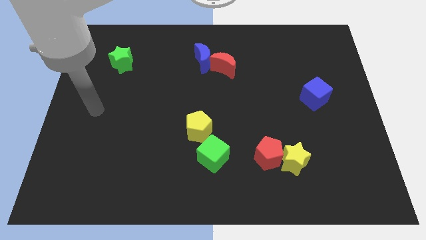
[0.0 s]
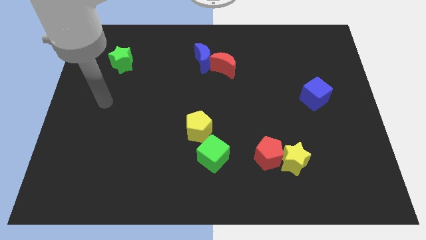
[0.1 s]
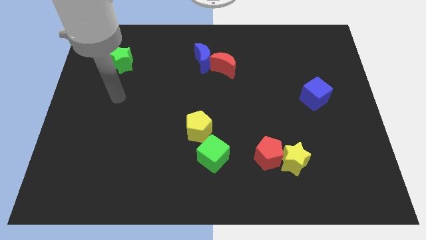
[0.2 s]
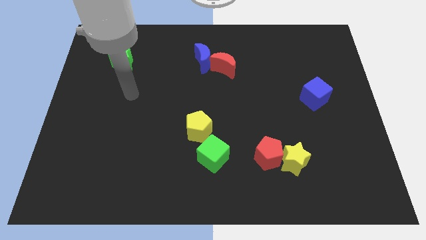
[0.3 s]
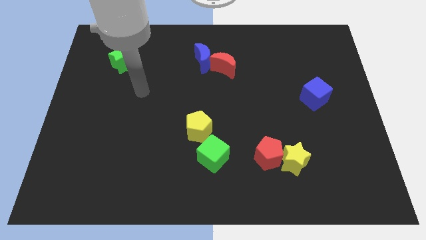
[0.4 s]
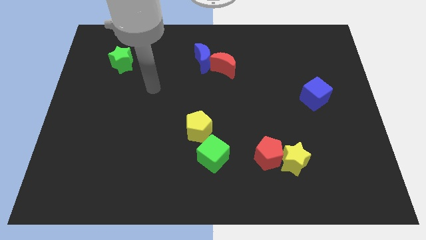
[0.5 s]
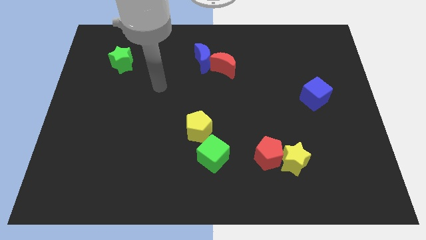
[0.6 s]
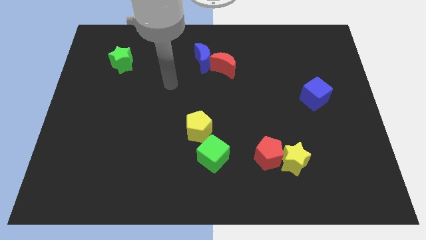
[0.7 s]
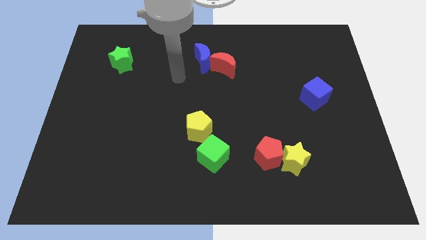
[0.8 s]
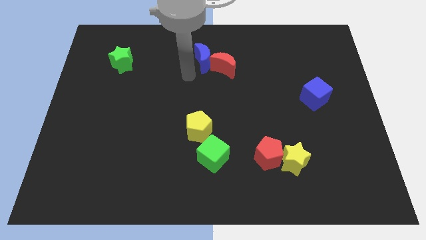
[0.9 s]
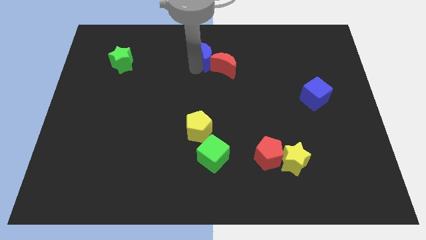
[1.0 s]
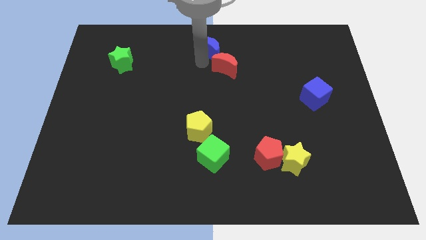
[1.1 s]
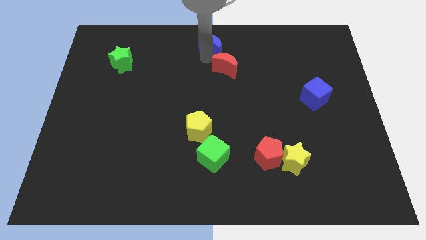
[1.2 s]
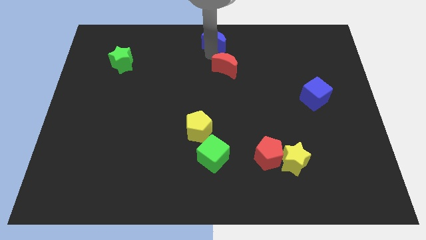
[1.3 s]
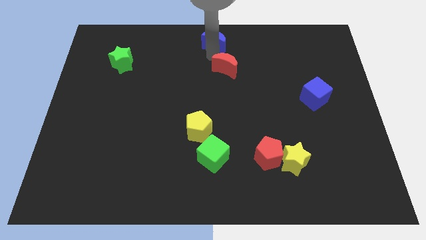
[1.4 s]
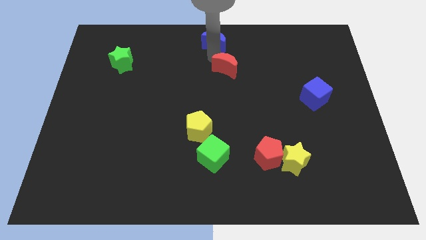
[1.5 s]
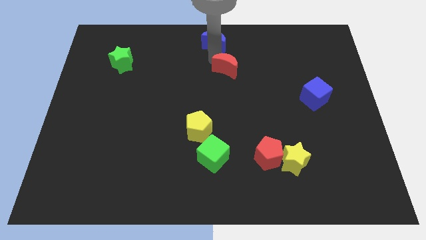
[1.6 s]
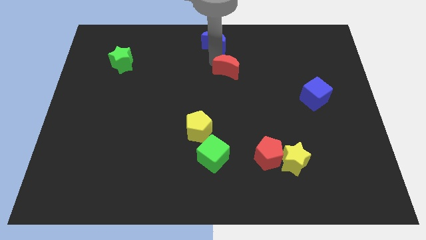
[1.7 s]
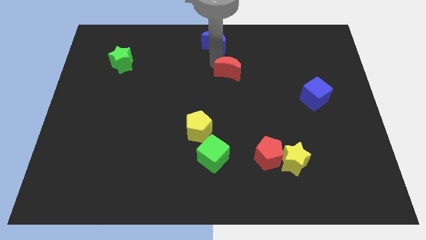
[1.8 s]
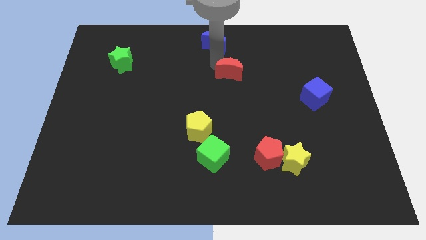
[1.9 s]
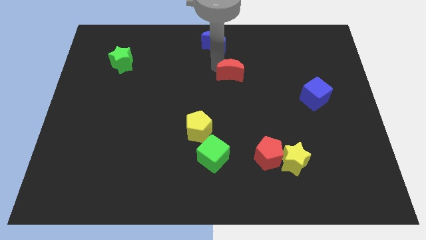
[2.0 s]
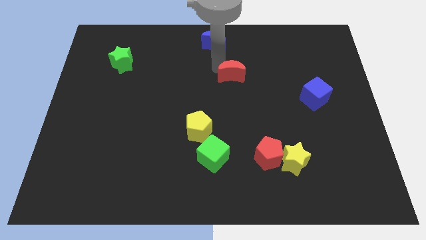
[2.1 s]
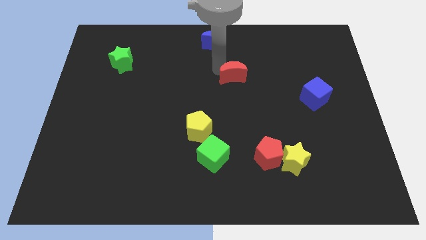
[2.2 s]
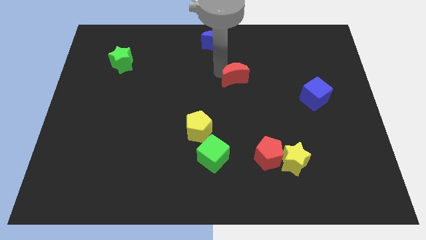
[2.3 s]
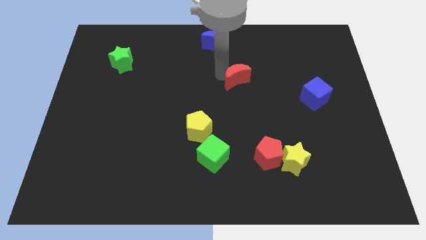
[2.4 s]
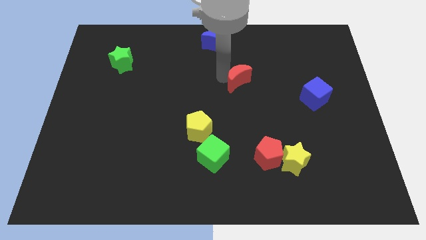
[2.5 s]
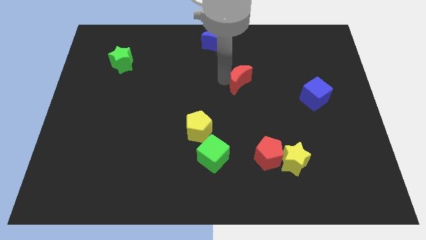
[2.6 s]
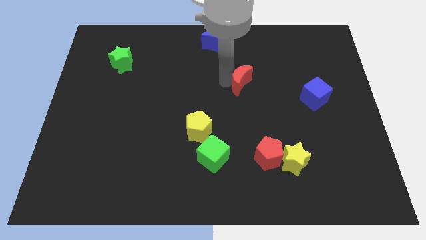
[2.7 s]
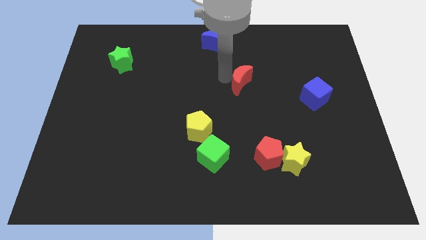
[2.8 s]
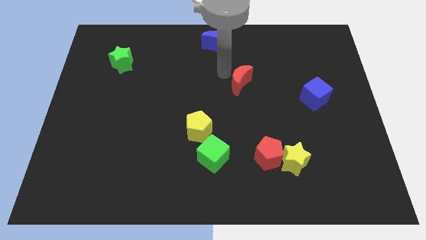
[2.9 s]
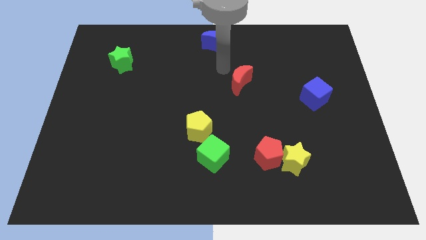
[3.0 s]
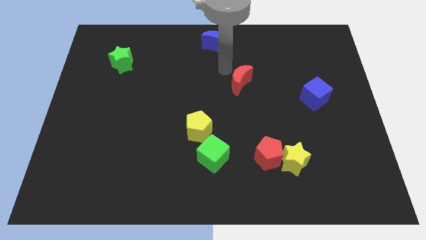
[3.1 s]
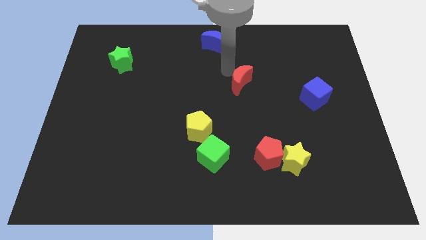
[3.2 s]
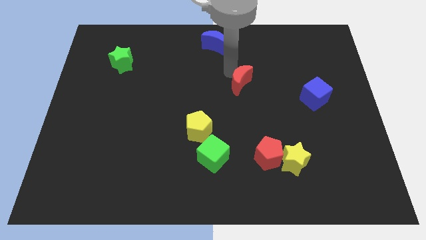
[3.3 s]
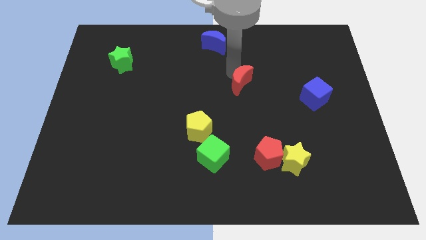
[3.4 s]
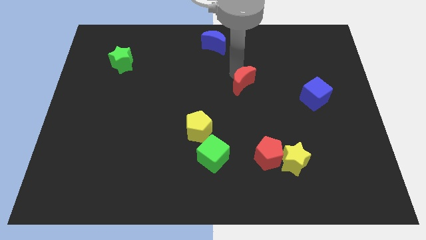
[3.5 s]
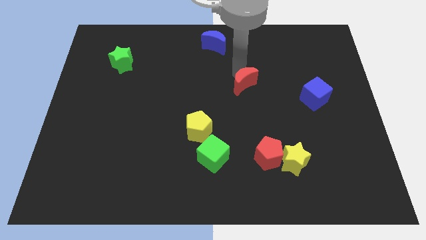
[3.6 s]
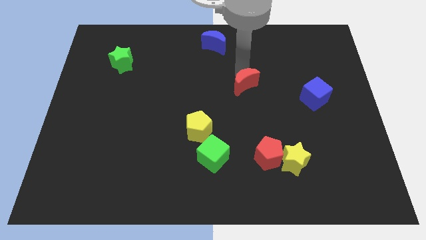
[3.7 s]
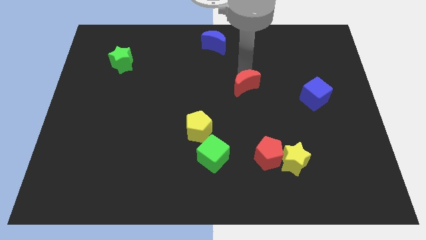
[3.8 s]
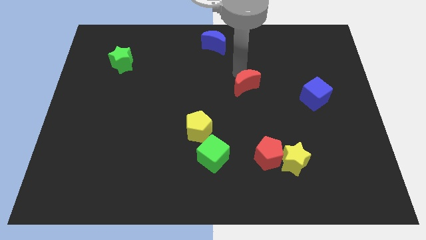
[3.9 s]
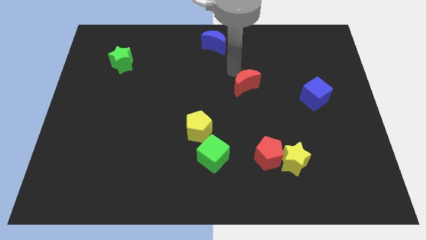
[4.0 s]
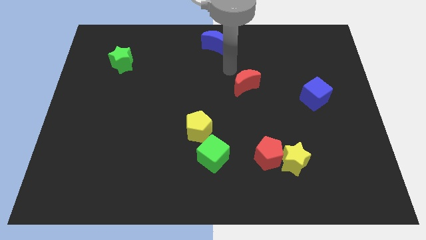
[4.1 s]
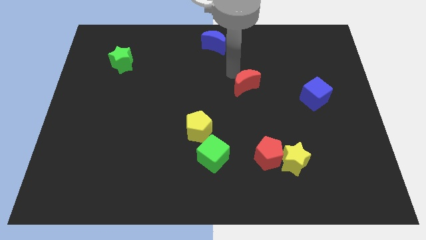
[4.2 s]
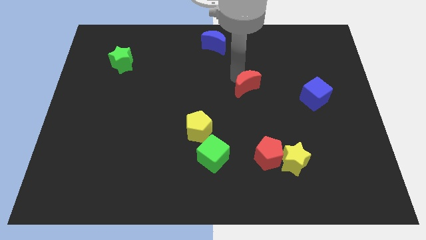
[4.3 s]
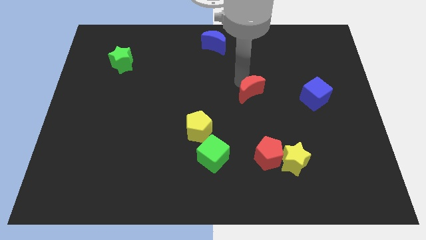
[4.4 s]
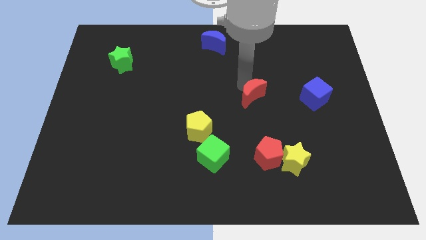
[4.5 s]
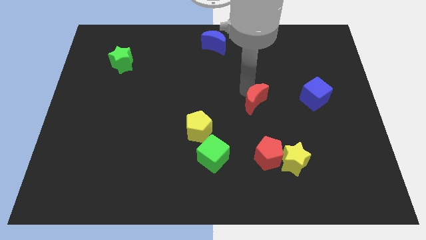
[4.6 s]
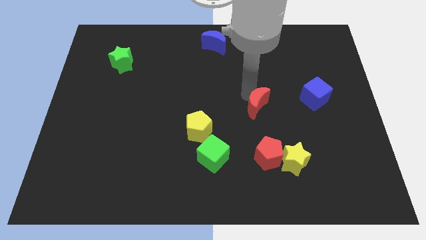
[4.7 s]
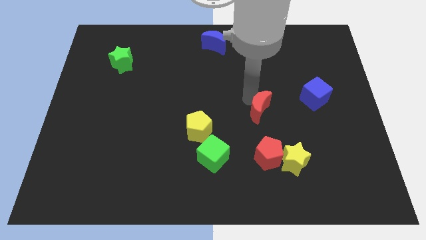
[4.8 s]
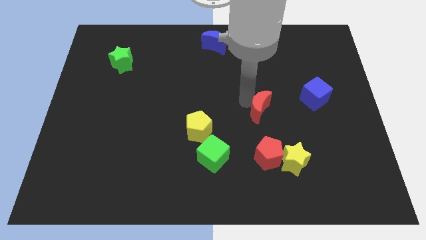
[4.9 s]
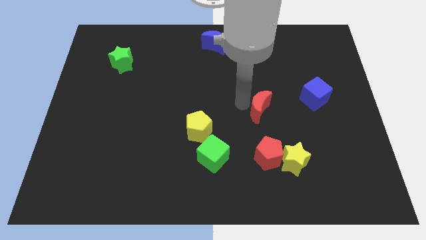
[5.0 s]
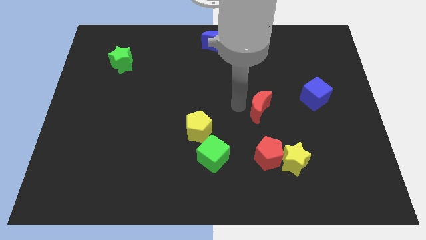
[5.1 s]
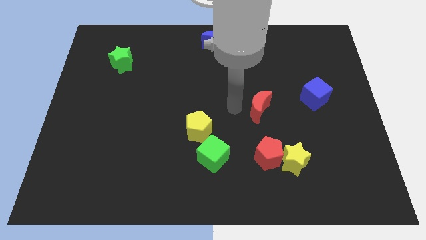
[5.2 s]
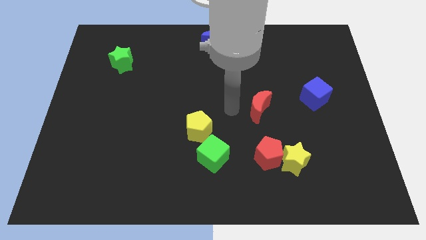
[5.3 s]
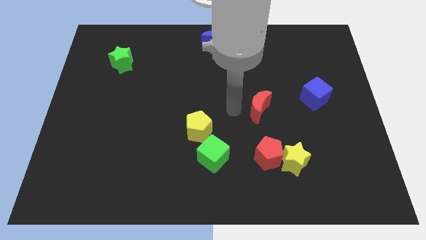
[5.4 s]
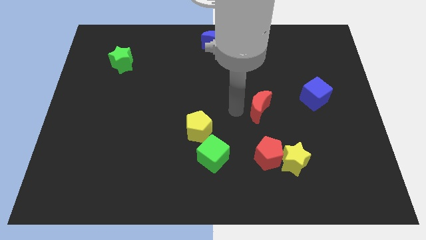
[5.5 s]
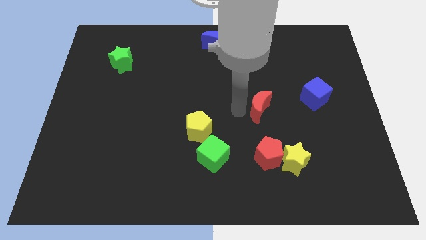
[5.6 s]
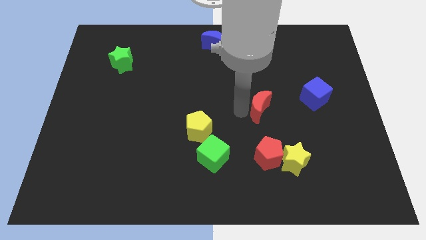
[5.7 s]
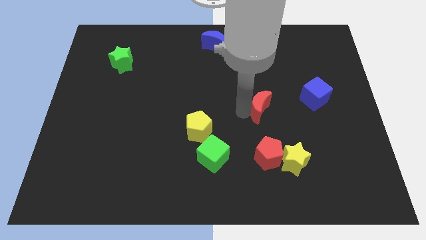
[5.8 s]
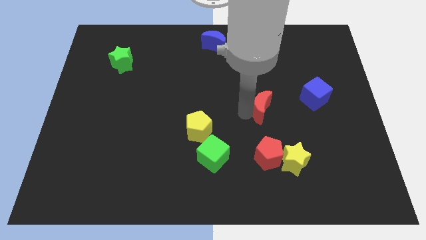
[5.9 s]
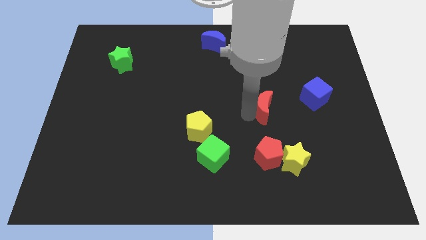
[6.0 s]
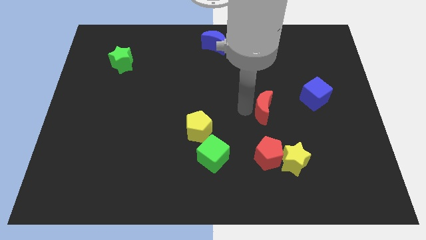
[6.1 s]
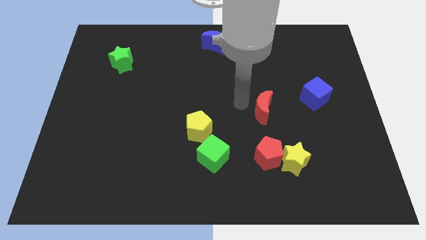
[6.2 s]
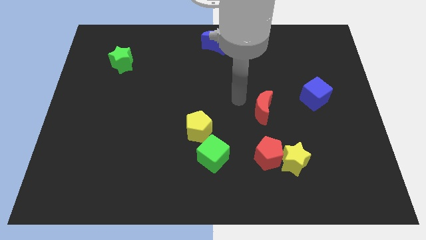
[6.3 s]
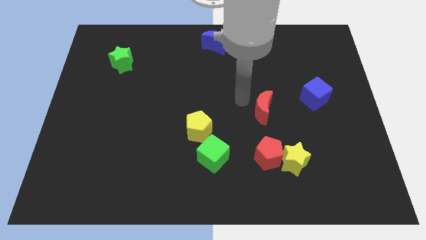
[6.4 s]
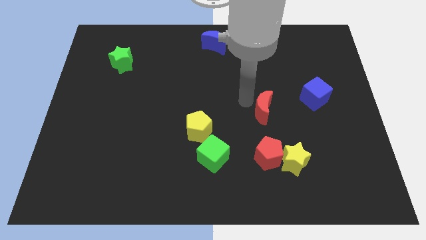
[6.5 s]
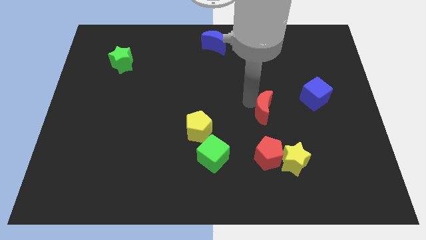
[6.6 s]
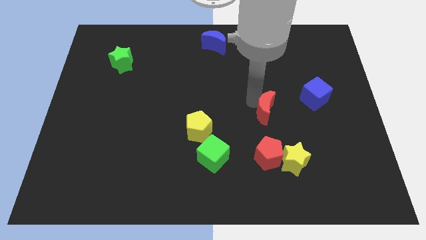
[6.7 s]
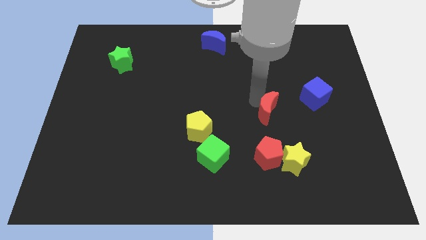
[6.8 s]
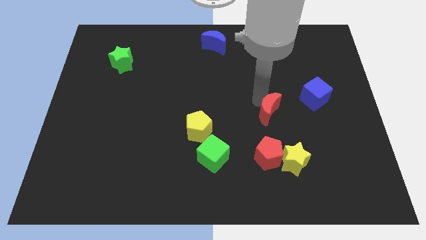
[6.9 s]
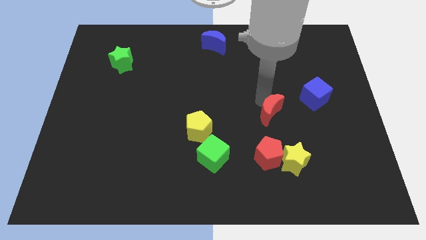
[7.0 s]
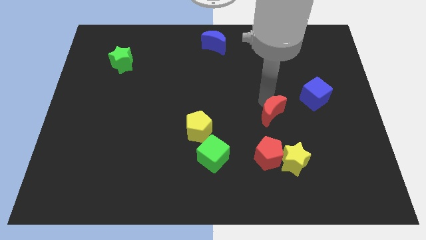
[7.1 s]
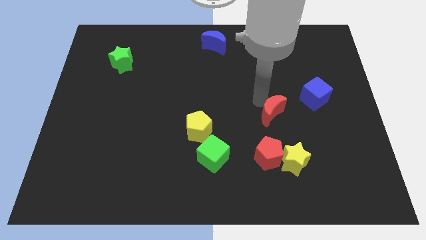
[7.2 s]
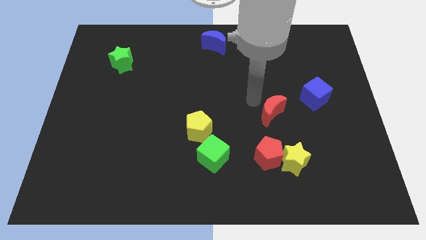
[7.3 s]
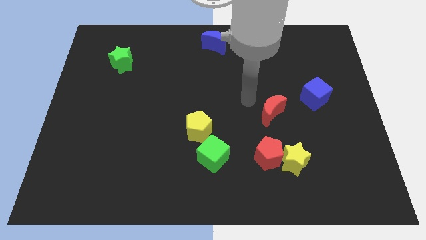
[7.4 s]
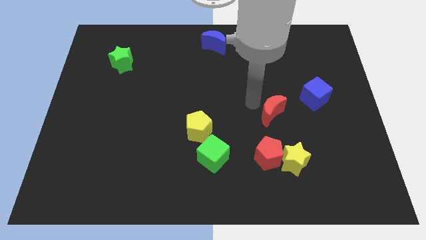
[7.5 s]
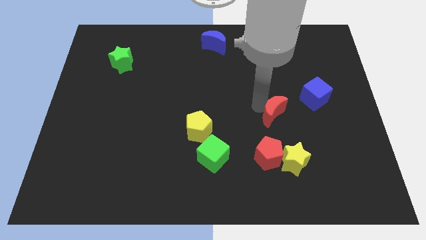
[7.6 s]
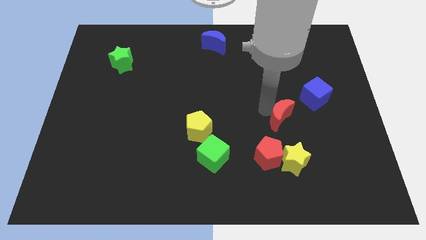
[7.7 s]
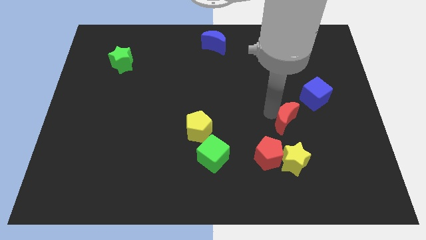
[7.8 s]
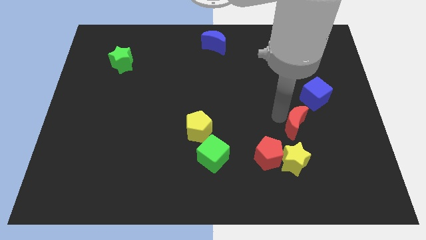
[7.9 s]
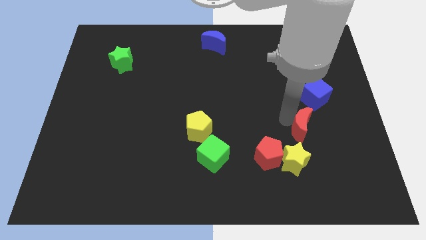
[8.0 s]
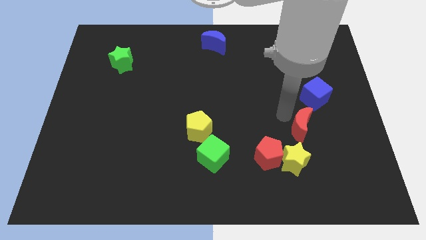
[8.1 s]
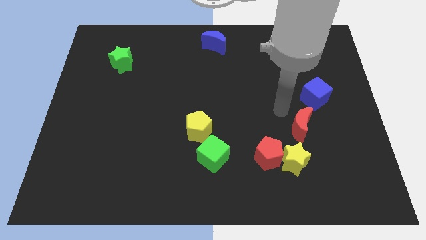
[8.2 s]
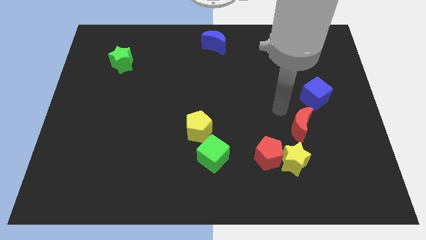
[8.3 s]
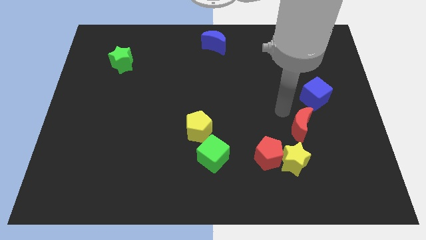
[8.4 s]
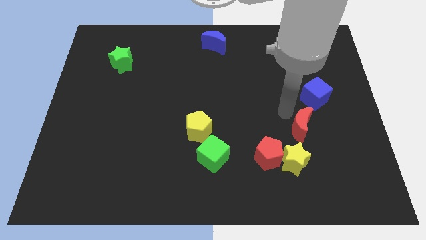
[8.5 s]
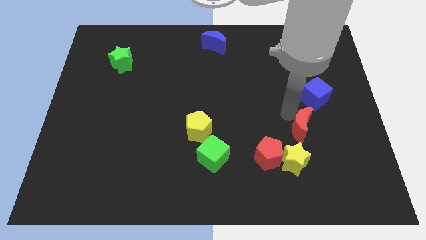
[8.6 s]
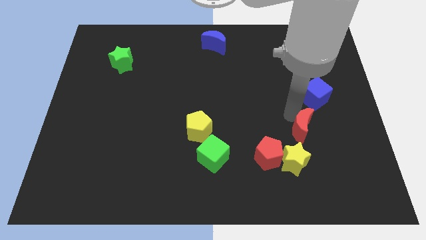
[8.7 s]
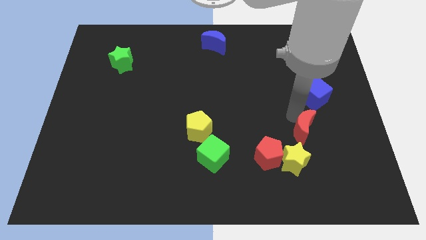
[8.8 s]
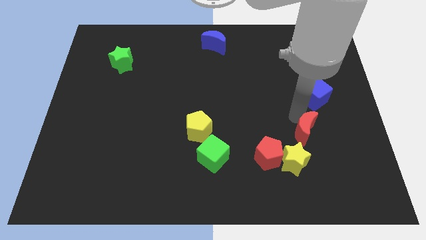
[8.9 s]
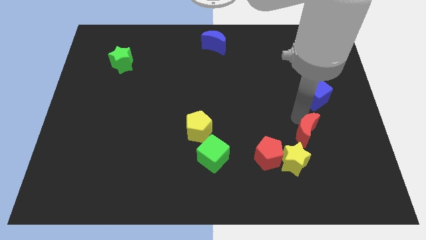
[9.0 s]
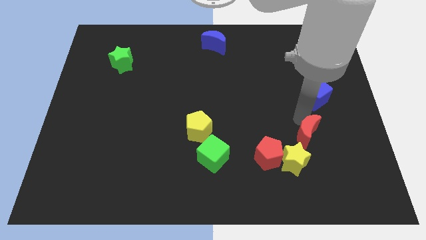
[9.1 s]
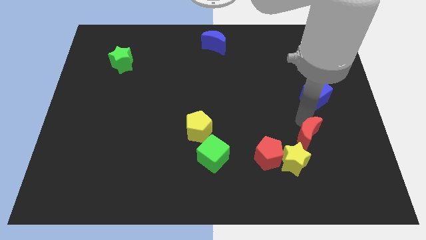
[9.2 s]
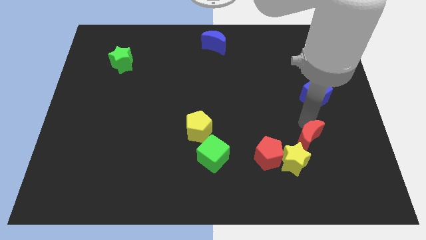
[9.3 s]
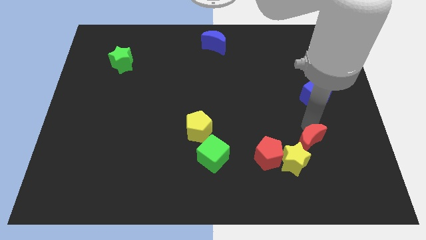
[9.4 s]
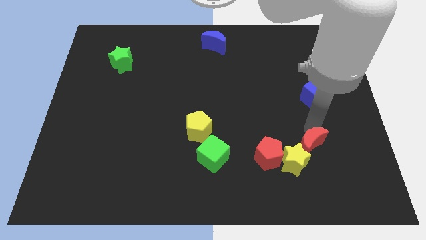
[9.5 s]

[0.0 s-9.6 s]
put the red moon right of the yellow star
